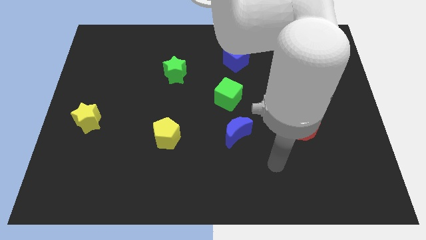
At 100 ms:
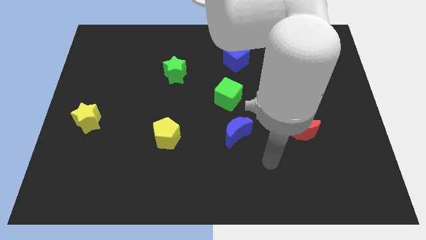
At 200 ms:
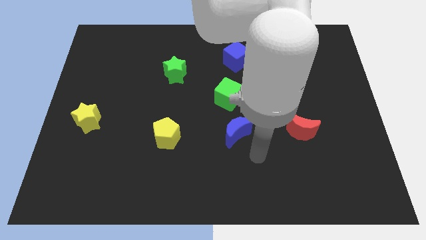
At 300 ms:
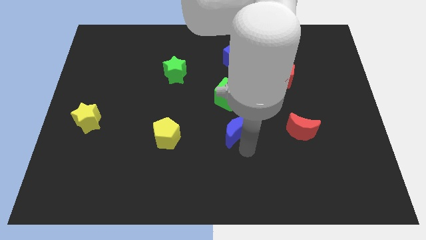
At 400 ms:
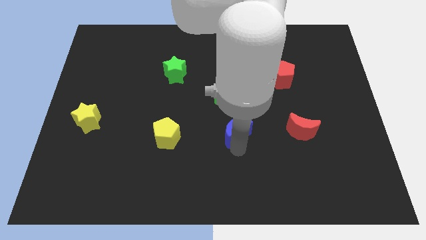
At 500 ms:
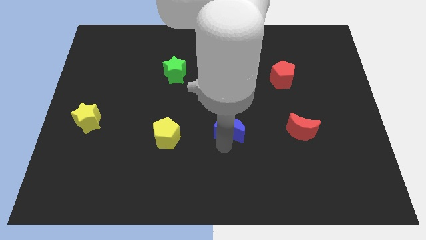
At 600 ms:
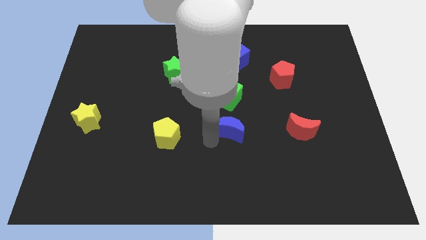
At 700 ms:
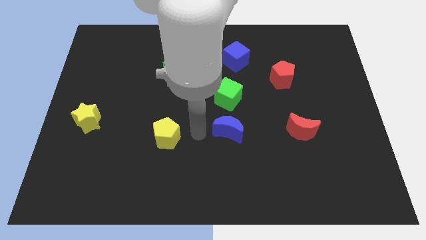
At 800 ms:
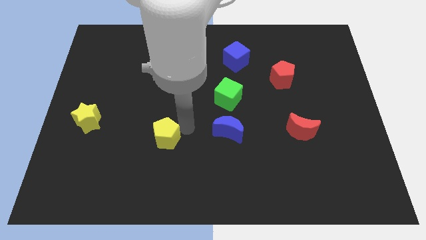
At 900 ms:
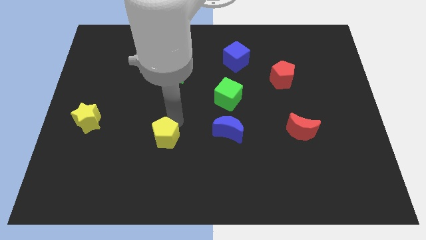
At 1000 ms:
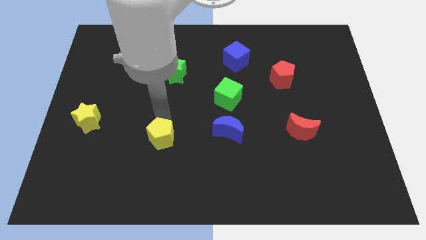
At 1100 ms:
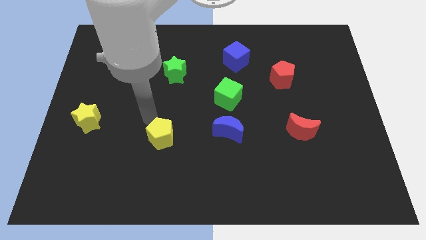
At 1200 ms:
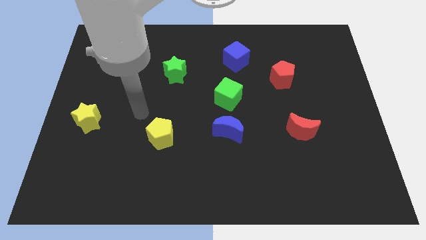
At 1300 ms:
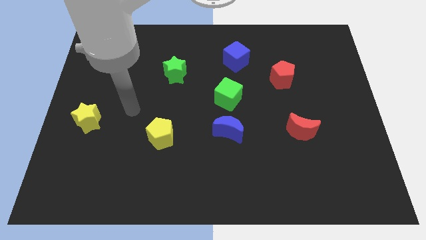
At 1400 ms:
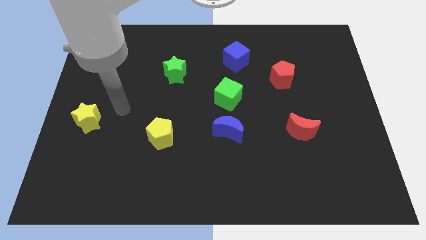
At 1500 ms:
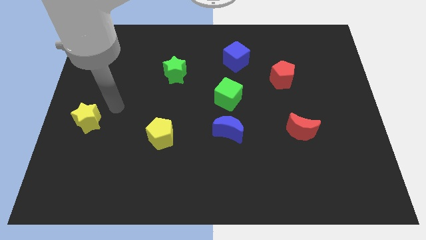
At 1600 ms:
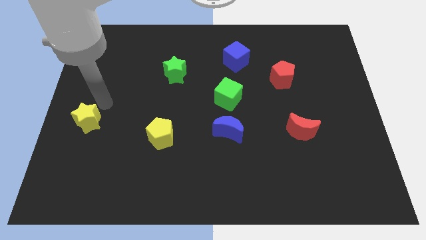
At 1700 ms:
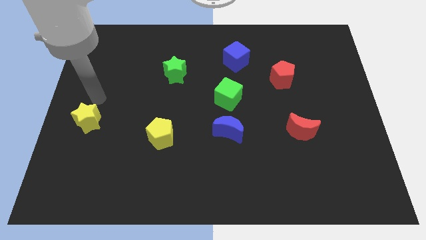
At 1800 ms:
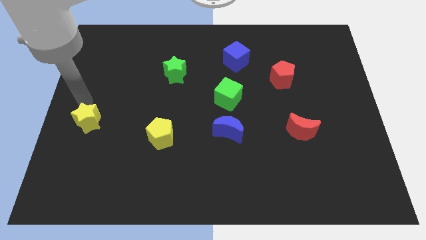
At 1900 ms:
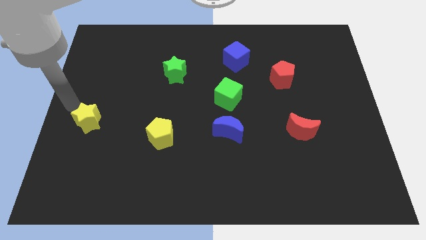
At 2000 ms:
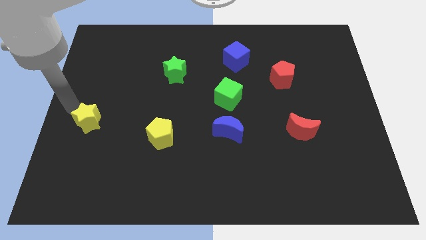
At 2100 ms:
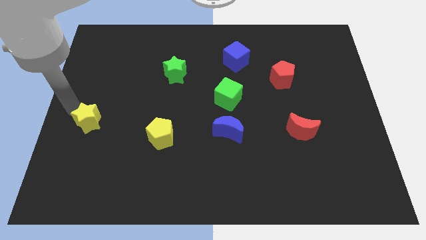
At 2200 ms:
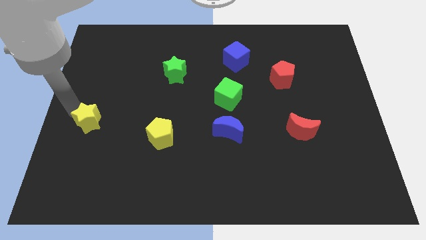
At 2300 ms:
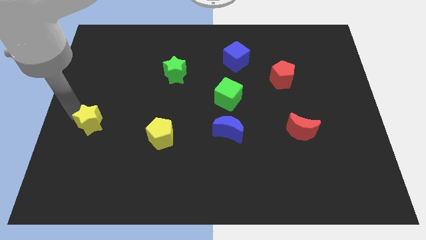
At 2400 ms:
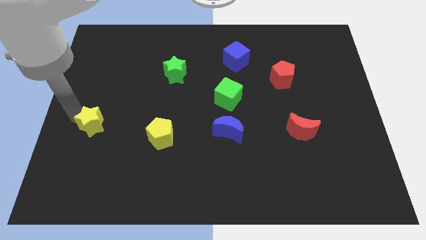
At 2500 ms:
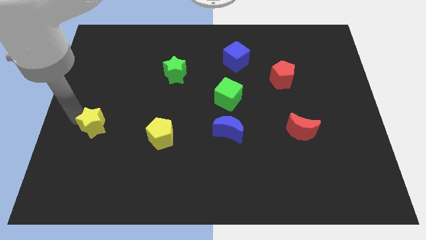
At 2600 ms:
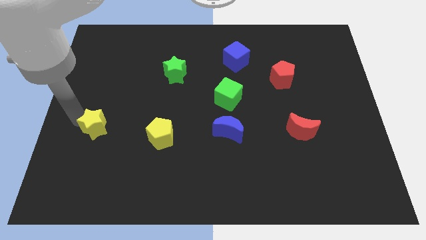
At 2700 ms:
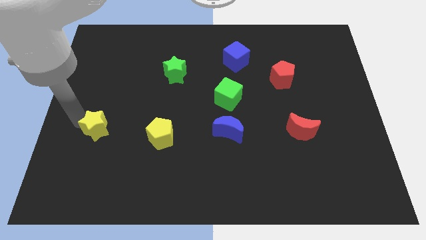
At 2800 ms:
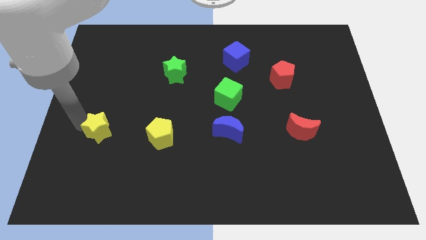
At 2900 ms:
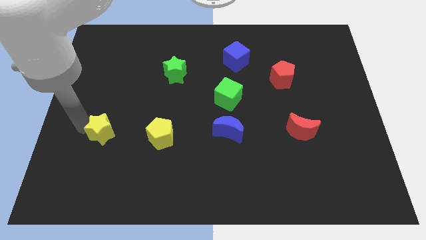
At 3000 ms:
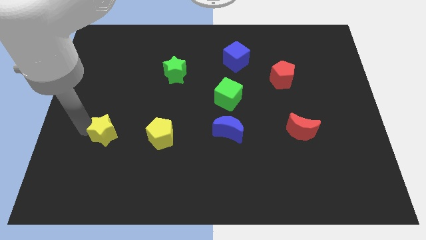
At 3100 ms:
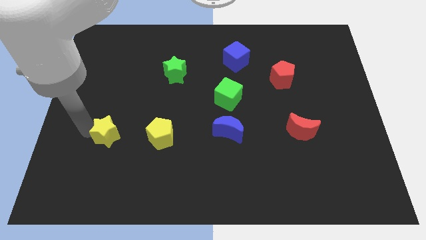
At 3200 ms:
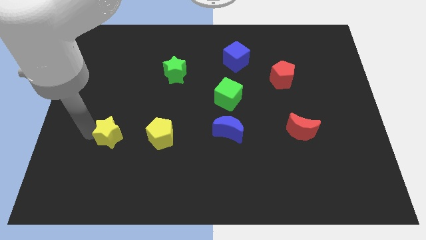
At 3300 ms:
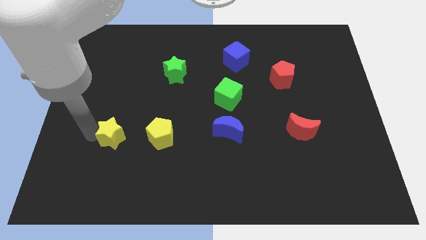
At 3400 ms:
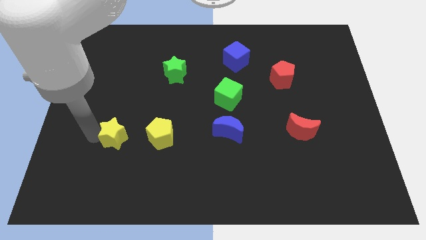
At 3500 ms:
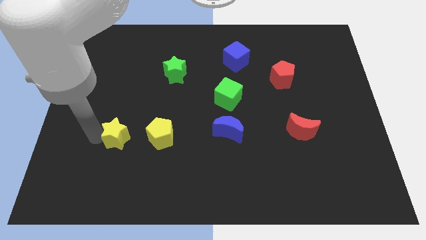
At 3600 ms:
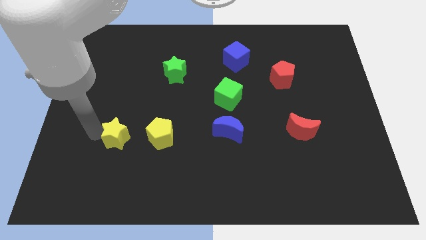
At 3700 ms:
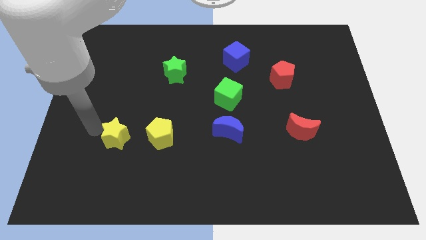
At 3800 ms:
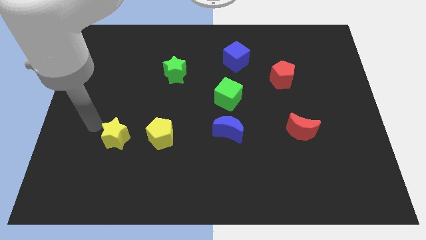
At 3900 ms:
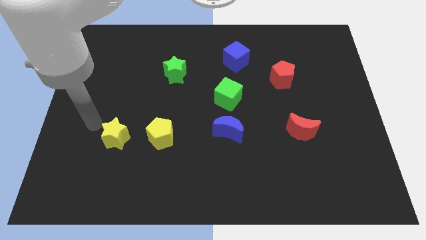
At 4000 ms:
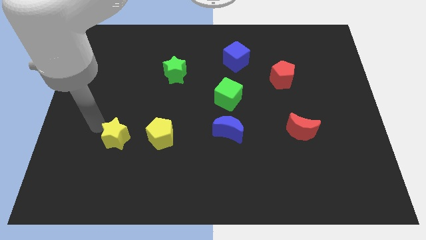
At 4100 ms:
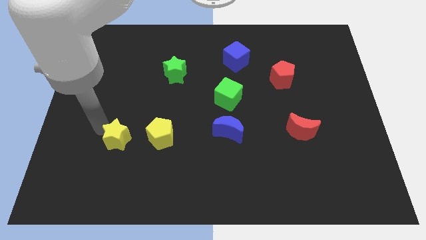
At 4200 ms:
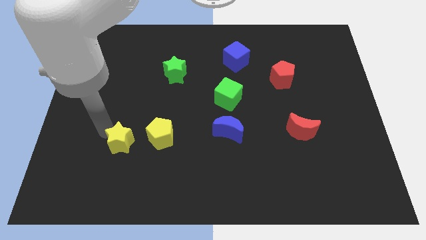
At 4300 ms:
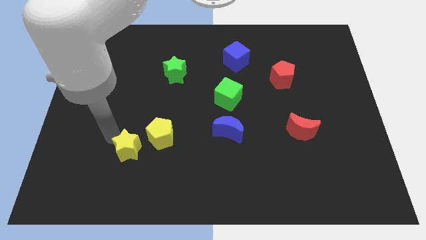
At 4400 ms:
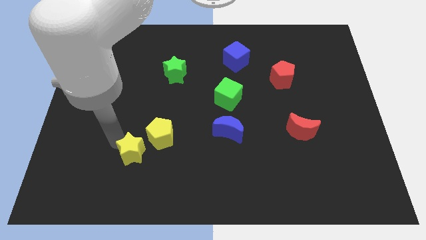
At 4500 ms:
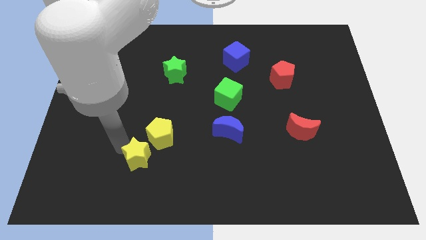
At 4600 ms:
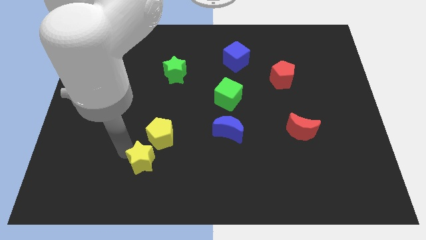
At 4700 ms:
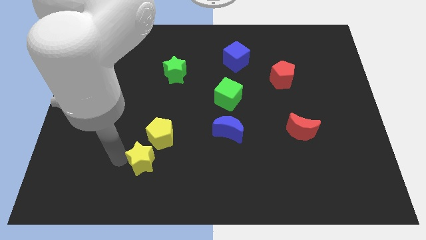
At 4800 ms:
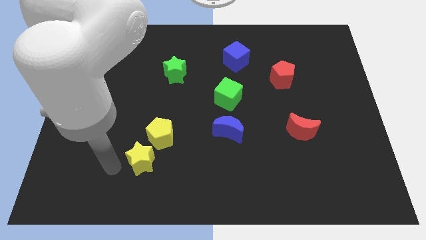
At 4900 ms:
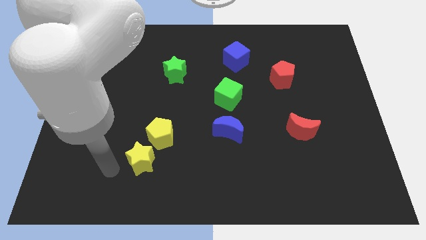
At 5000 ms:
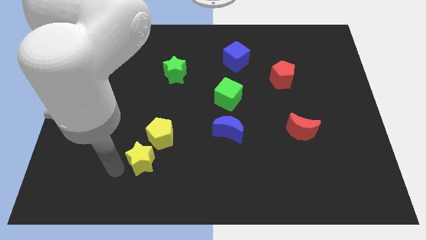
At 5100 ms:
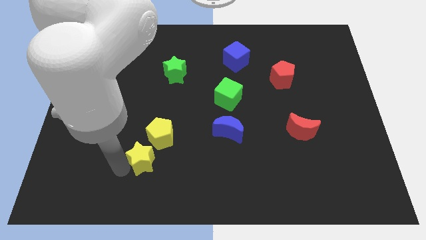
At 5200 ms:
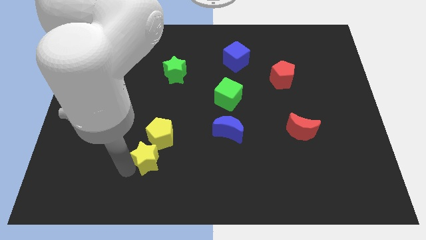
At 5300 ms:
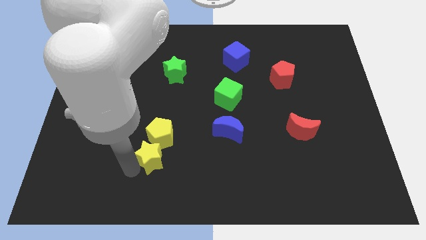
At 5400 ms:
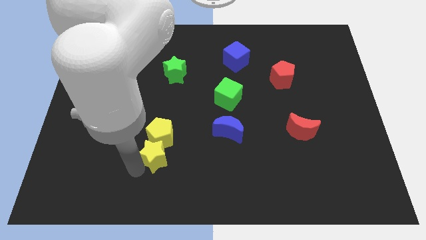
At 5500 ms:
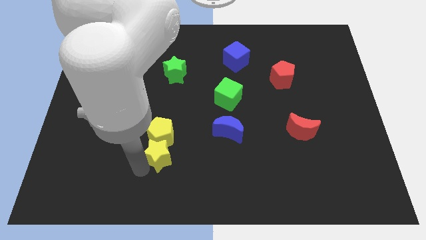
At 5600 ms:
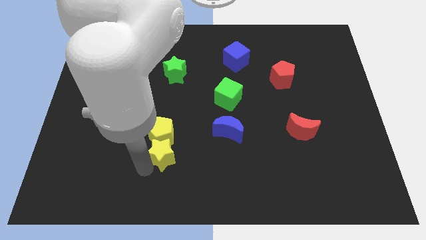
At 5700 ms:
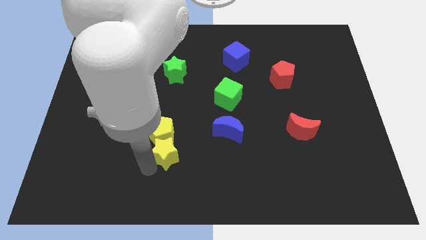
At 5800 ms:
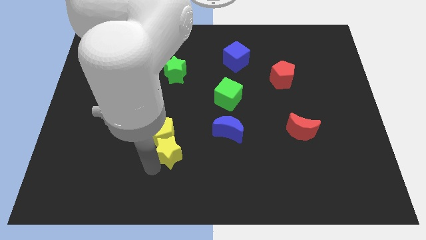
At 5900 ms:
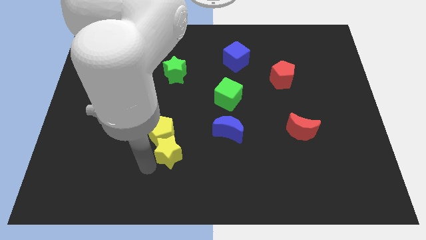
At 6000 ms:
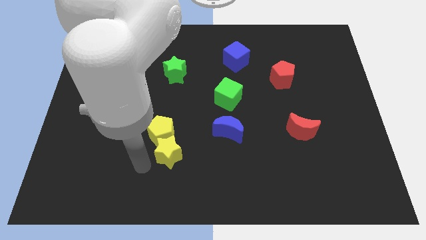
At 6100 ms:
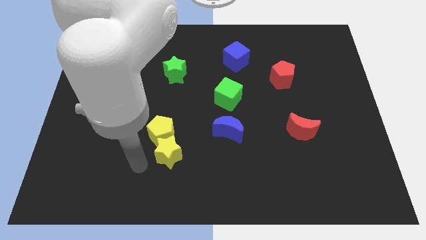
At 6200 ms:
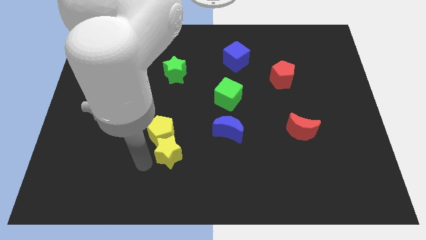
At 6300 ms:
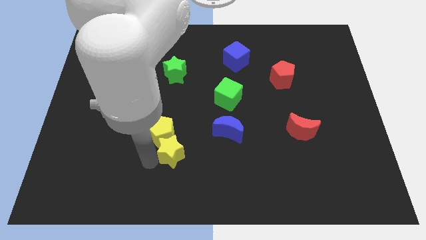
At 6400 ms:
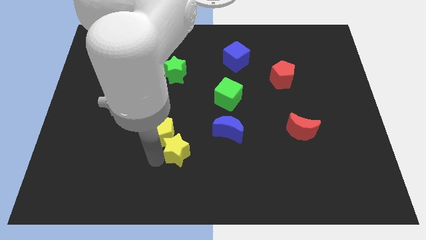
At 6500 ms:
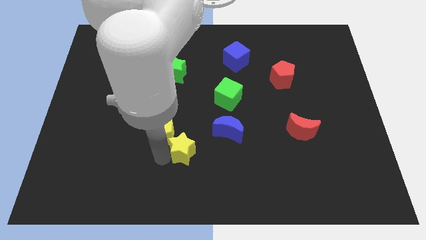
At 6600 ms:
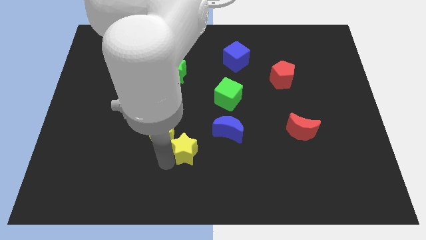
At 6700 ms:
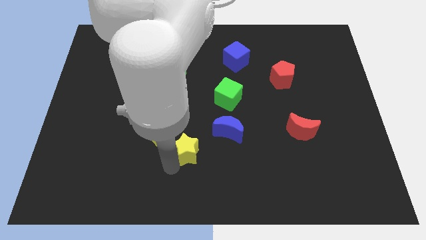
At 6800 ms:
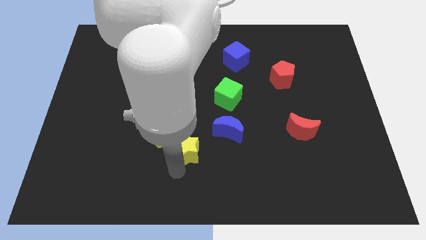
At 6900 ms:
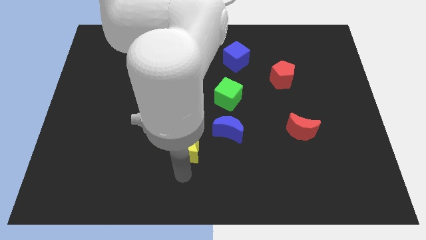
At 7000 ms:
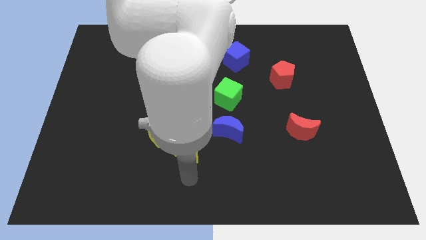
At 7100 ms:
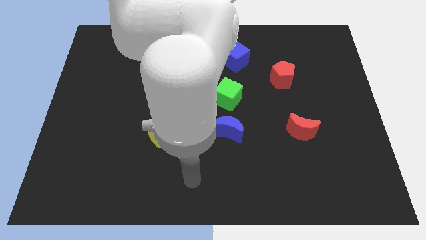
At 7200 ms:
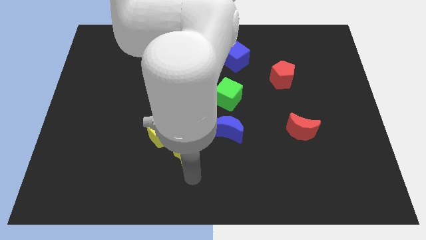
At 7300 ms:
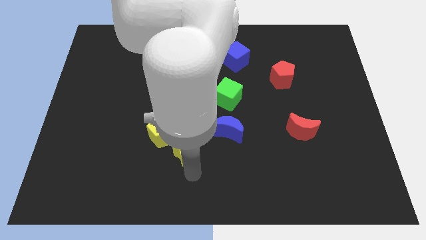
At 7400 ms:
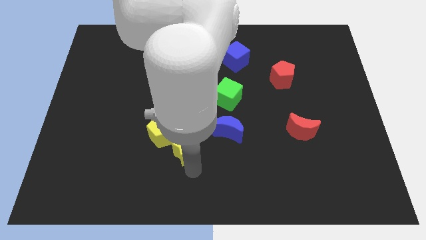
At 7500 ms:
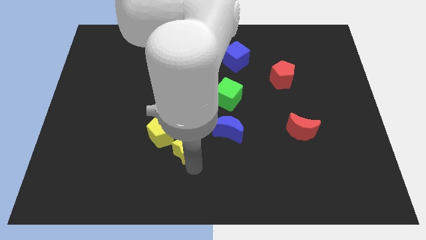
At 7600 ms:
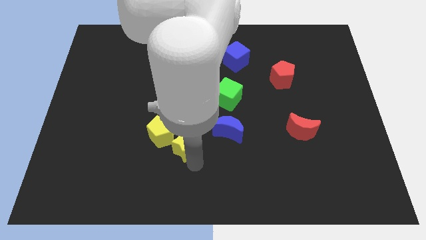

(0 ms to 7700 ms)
put the yellow star just left of the blue moon
